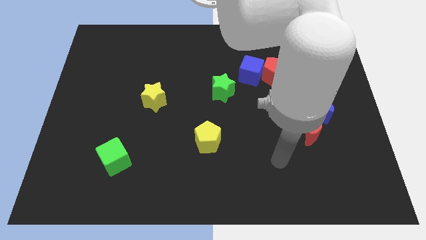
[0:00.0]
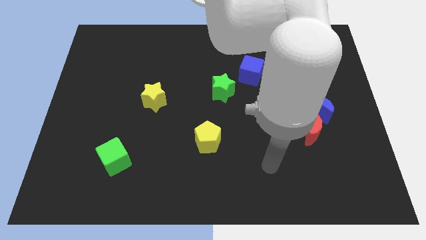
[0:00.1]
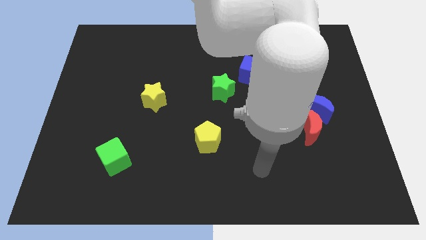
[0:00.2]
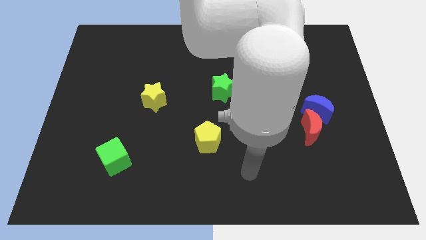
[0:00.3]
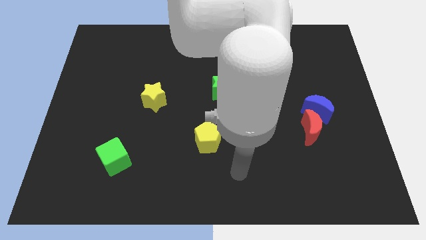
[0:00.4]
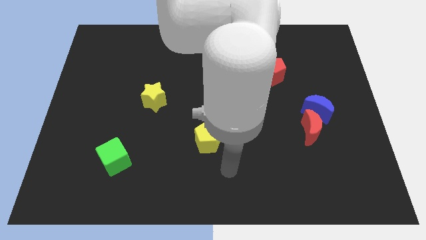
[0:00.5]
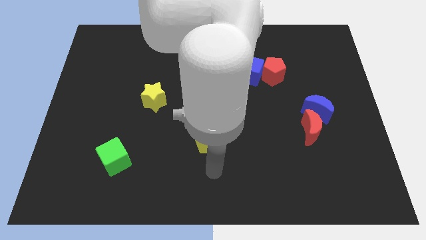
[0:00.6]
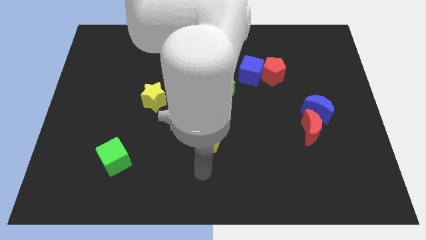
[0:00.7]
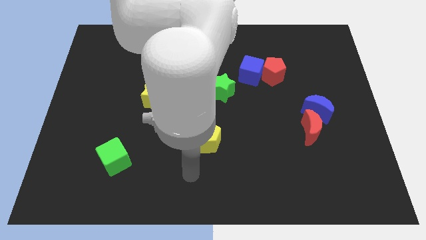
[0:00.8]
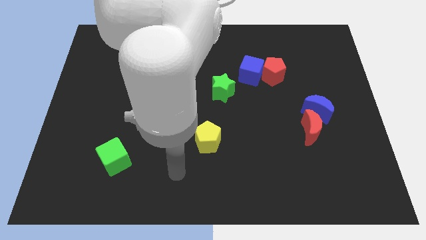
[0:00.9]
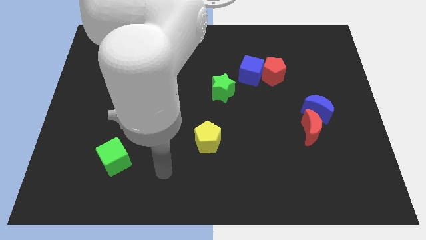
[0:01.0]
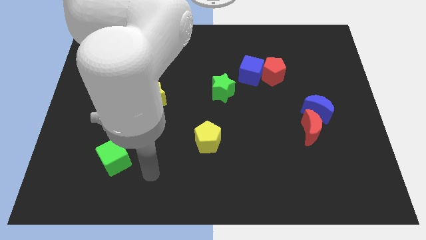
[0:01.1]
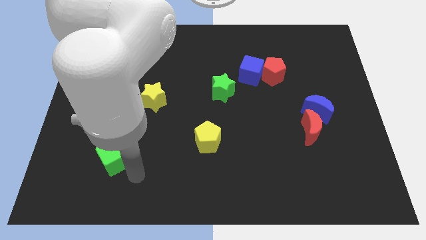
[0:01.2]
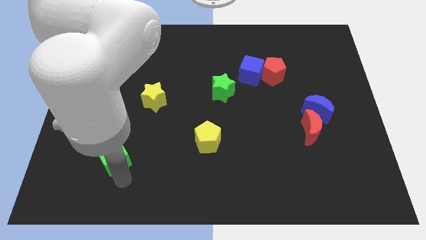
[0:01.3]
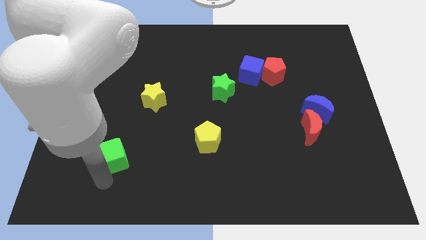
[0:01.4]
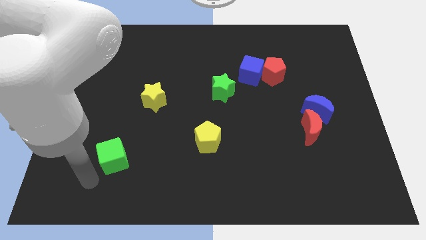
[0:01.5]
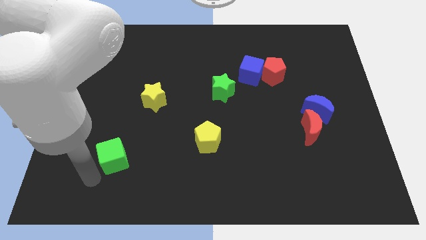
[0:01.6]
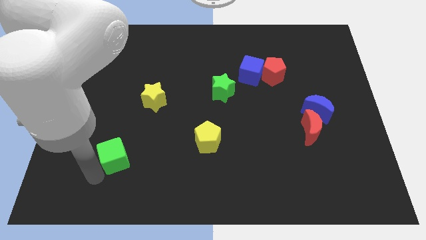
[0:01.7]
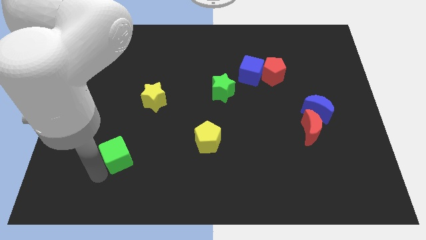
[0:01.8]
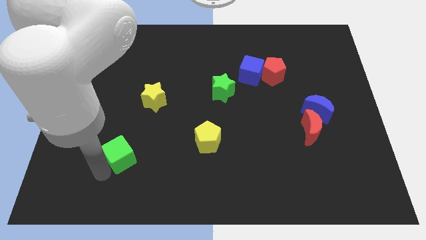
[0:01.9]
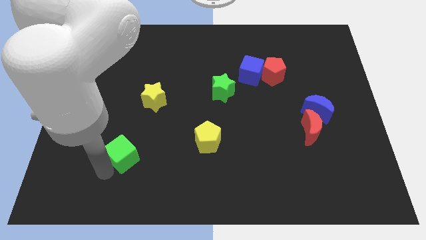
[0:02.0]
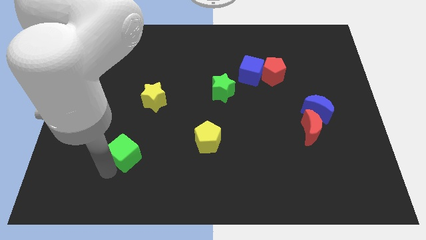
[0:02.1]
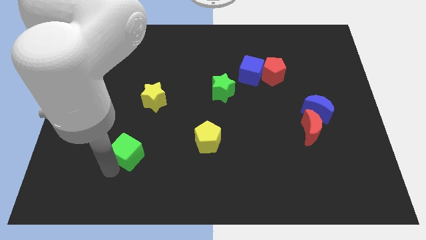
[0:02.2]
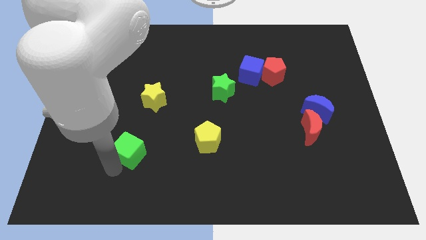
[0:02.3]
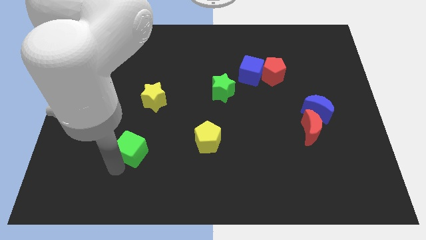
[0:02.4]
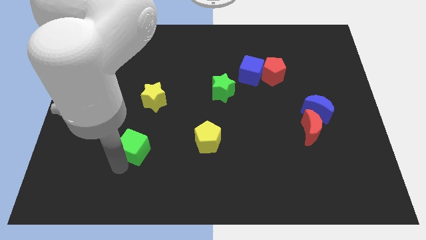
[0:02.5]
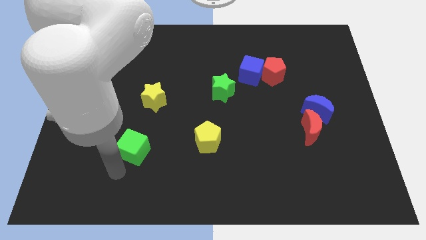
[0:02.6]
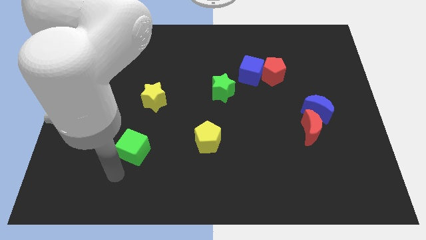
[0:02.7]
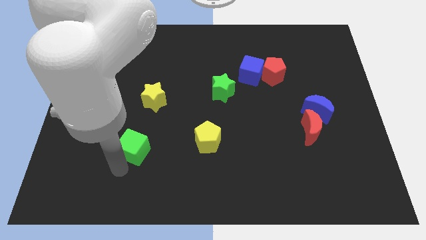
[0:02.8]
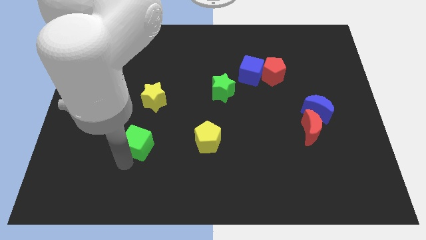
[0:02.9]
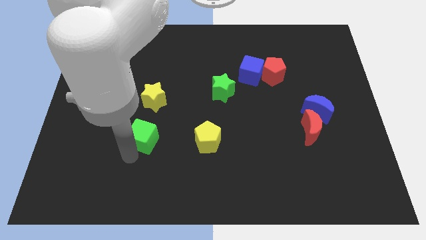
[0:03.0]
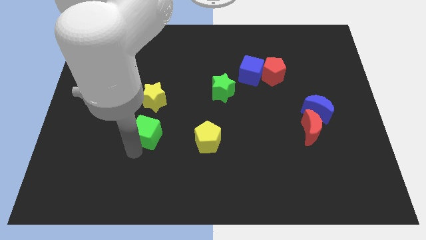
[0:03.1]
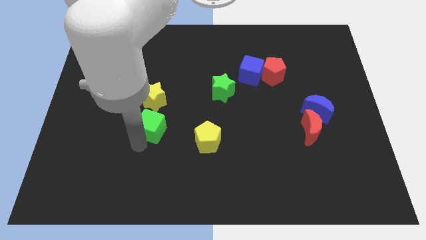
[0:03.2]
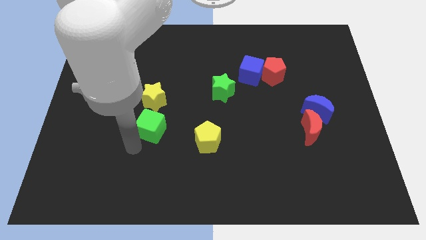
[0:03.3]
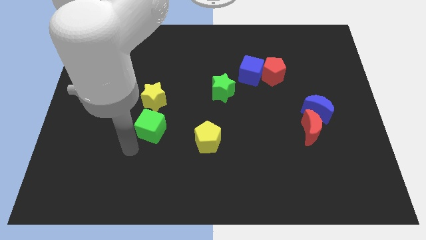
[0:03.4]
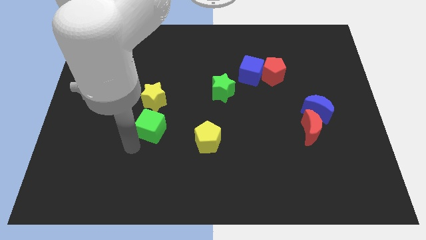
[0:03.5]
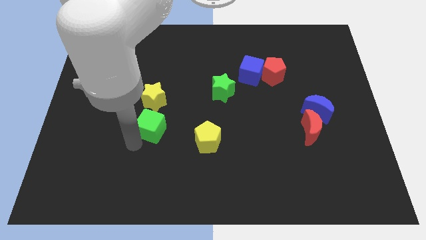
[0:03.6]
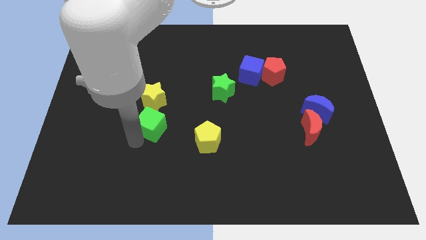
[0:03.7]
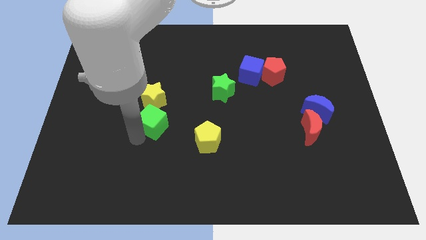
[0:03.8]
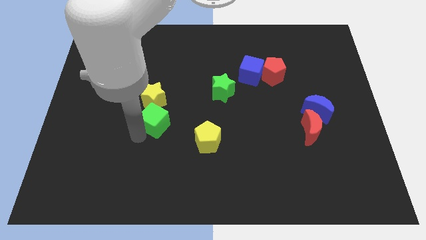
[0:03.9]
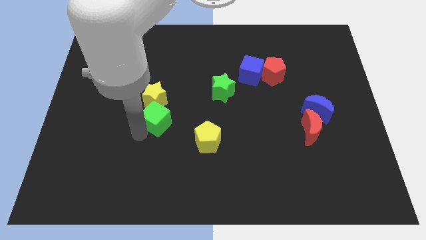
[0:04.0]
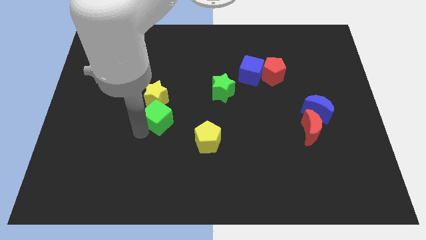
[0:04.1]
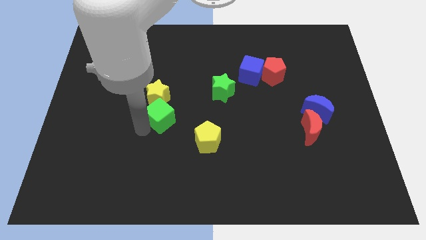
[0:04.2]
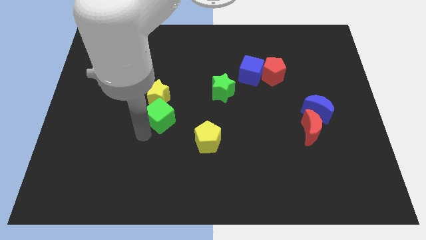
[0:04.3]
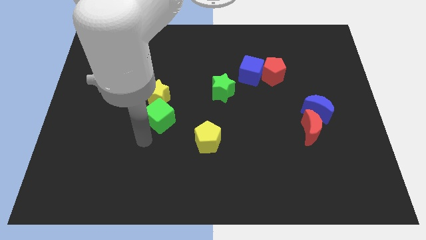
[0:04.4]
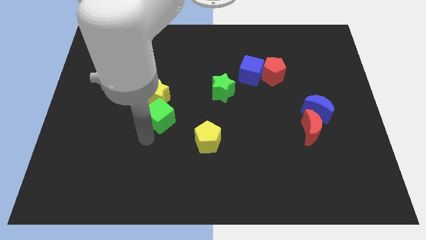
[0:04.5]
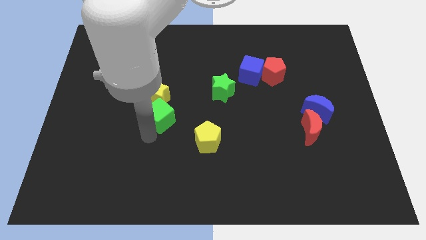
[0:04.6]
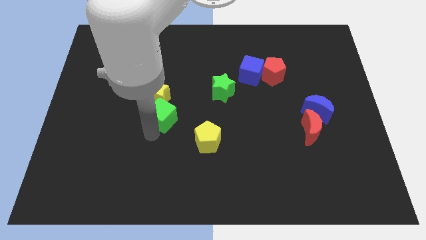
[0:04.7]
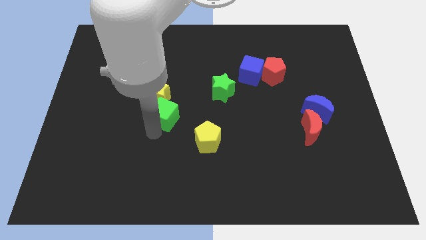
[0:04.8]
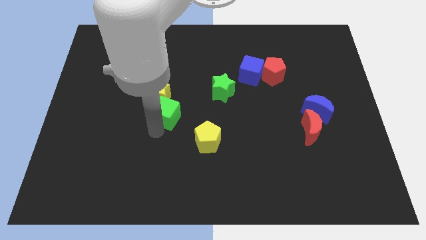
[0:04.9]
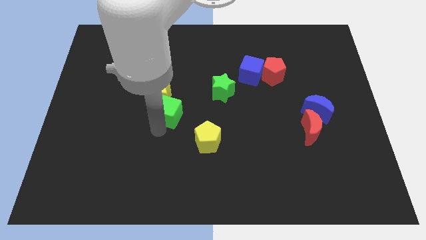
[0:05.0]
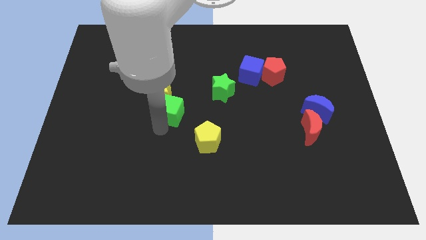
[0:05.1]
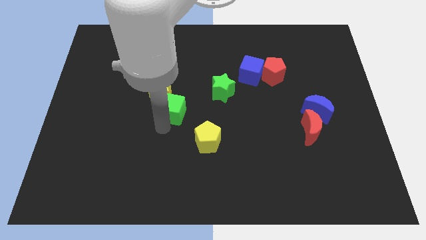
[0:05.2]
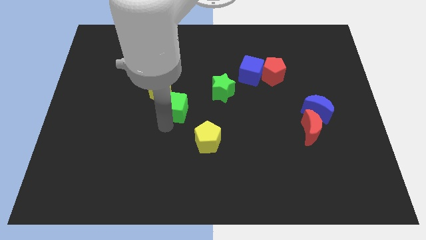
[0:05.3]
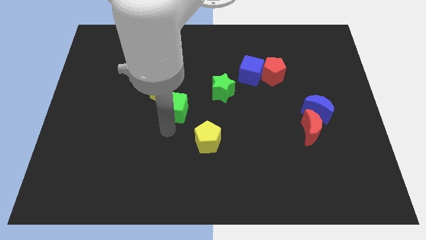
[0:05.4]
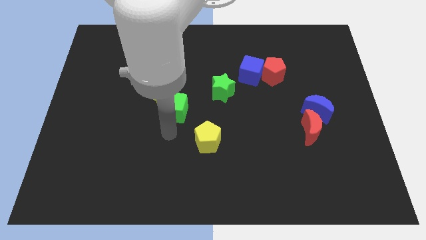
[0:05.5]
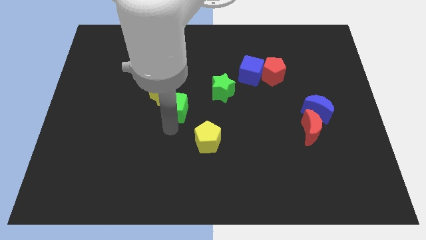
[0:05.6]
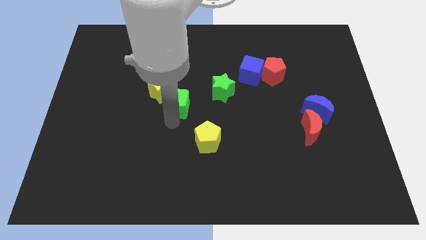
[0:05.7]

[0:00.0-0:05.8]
push the green cube to the left side of the green star

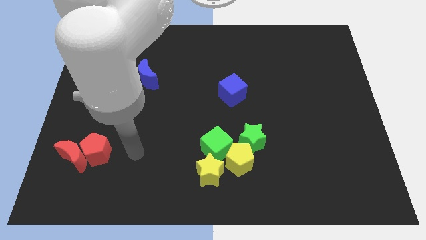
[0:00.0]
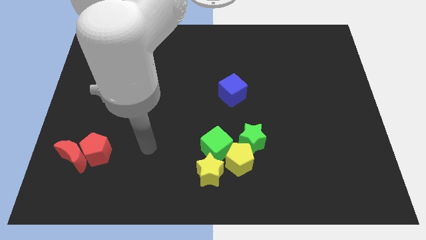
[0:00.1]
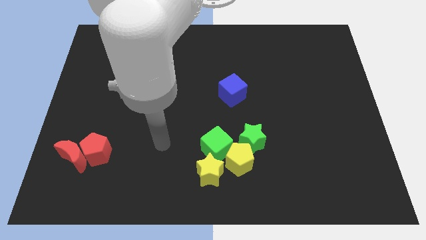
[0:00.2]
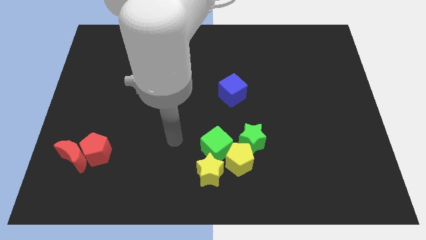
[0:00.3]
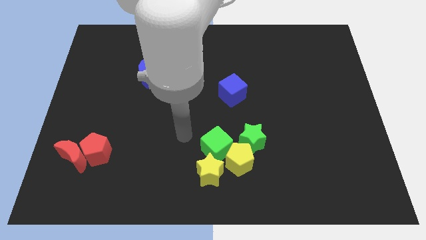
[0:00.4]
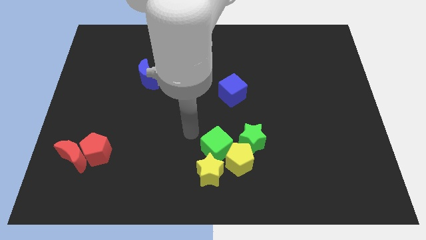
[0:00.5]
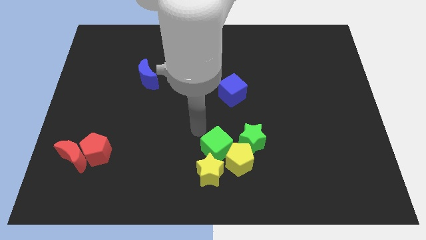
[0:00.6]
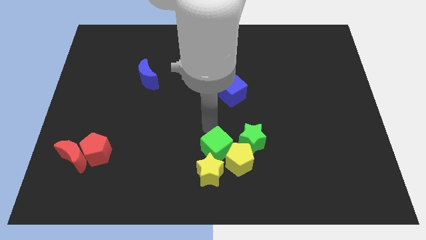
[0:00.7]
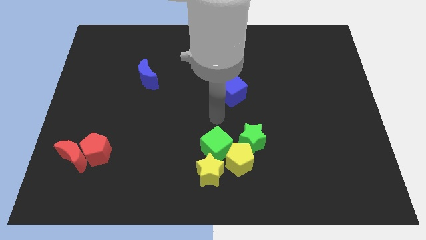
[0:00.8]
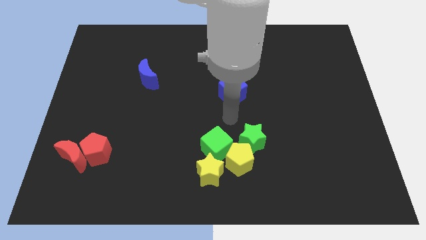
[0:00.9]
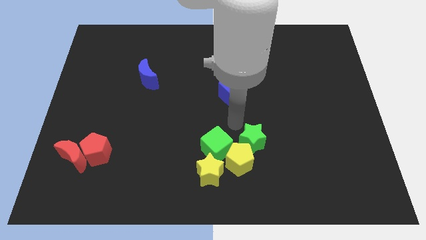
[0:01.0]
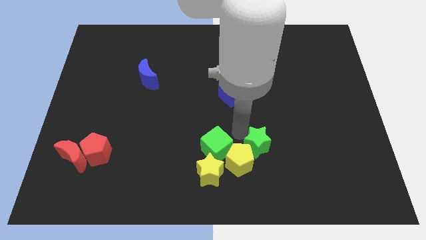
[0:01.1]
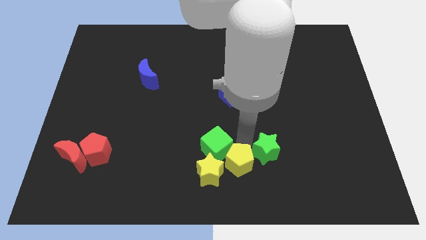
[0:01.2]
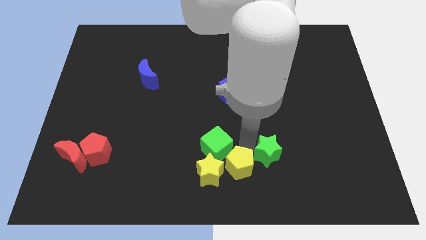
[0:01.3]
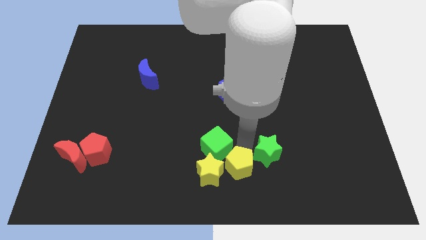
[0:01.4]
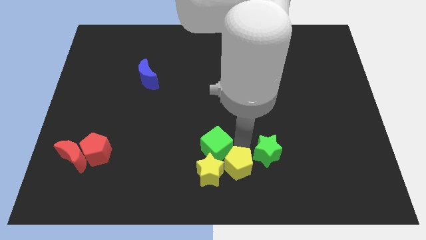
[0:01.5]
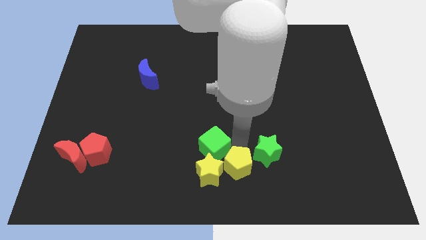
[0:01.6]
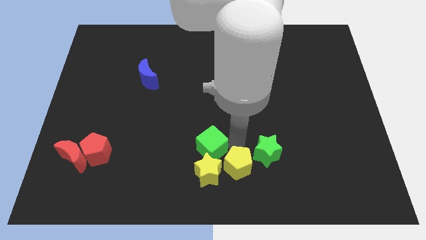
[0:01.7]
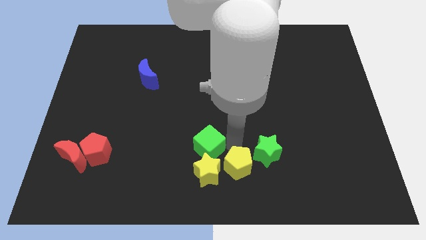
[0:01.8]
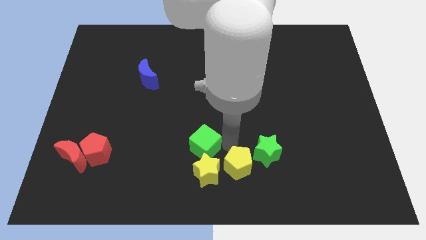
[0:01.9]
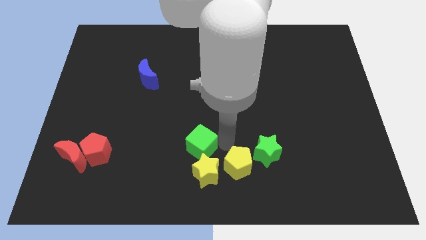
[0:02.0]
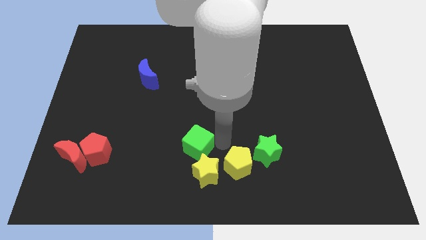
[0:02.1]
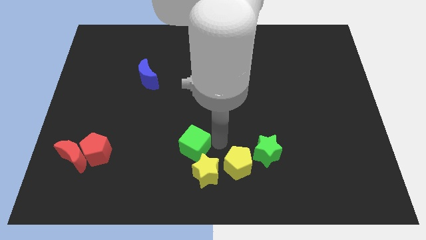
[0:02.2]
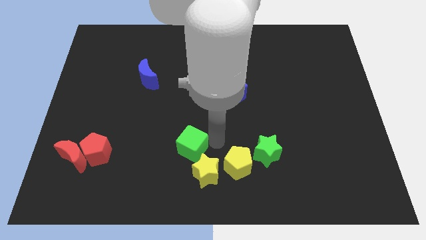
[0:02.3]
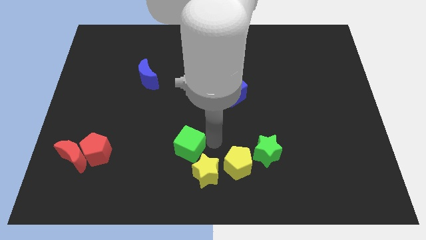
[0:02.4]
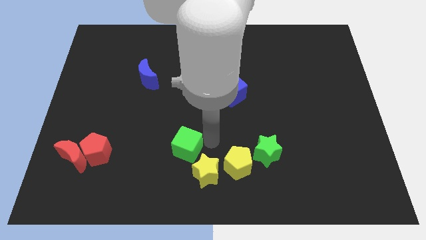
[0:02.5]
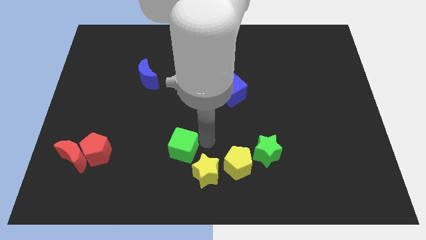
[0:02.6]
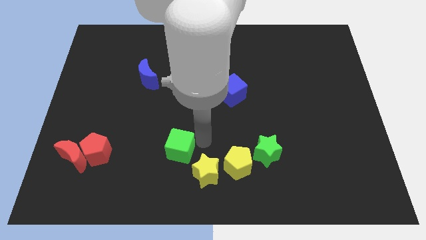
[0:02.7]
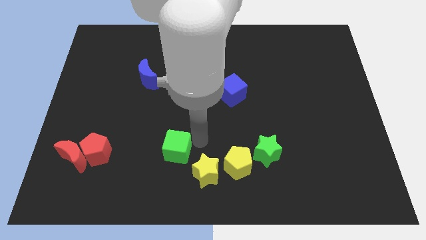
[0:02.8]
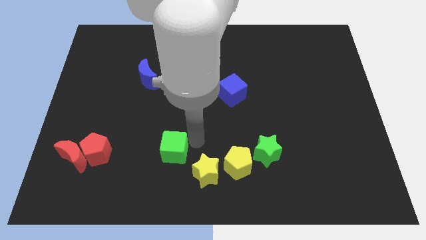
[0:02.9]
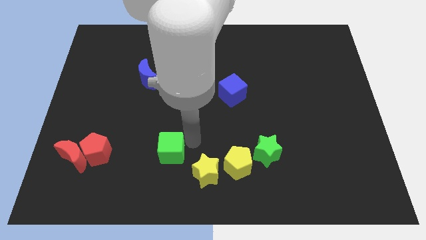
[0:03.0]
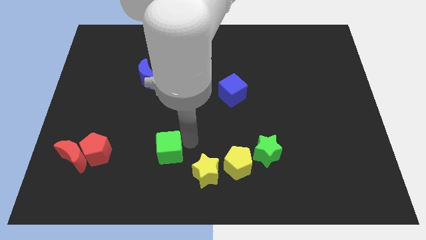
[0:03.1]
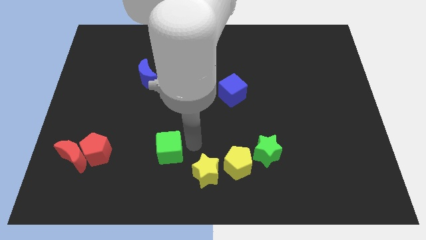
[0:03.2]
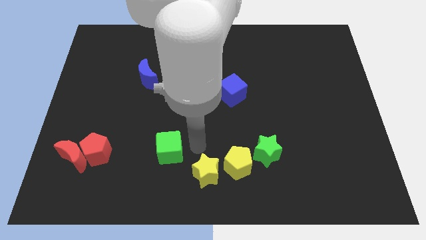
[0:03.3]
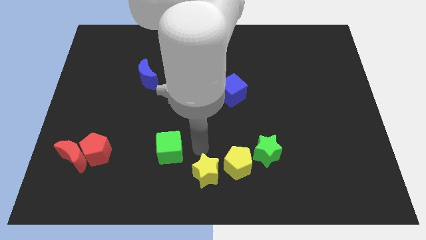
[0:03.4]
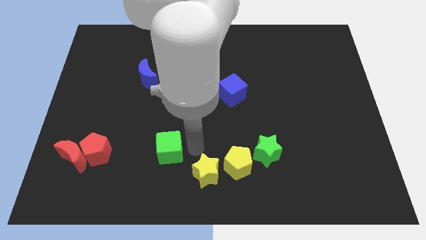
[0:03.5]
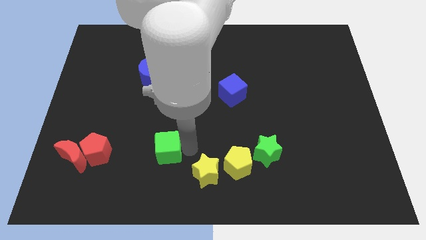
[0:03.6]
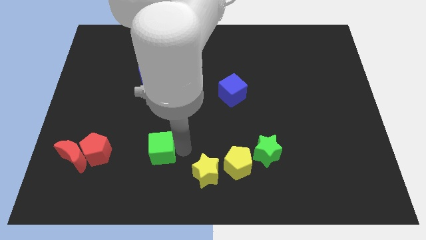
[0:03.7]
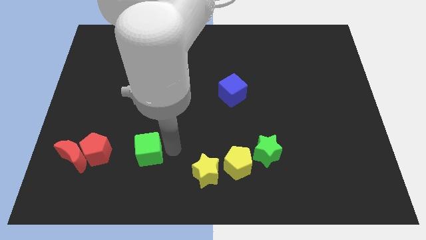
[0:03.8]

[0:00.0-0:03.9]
slide the green cube to the right of the red moon
